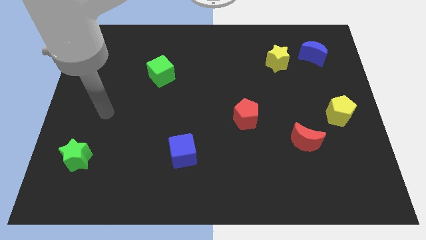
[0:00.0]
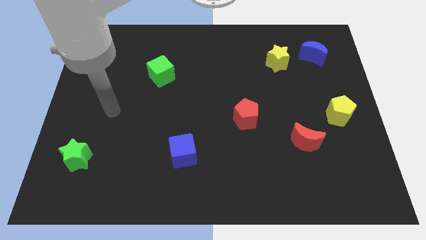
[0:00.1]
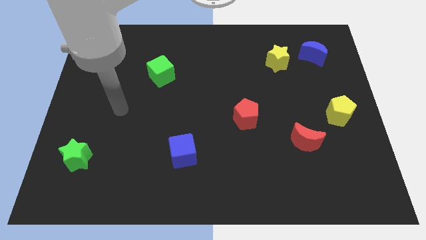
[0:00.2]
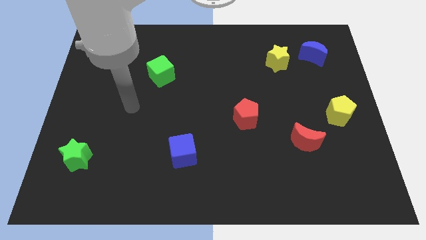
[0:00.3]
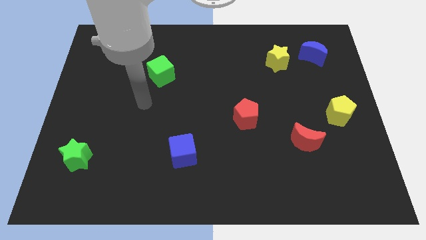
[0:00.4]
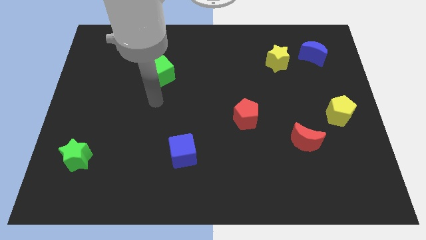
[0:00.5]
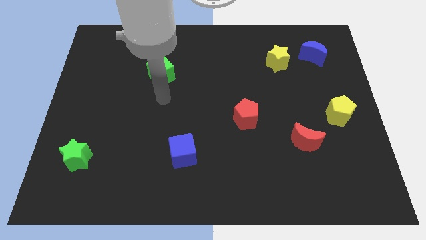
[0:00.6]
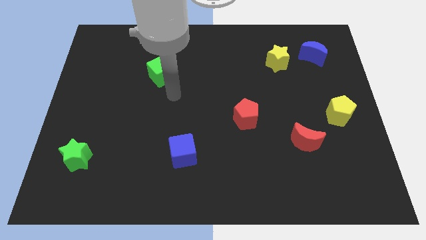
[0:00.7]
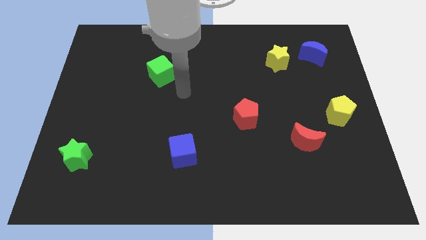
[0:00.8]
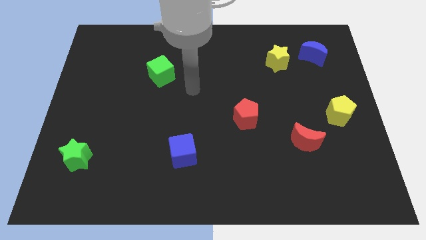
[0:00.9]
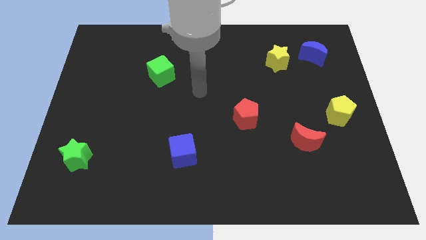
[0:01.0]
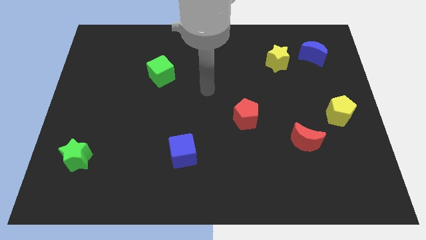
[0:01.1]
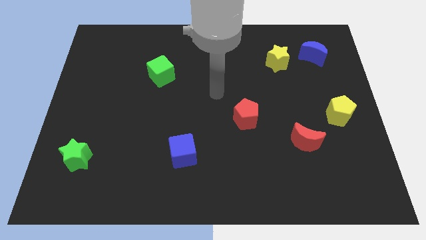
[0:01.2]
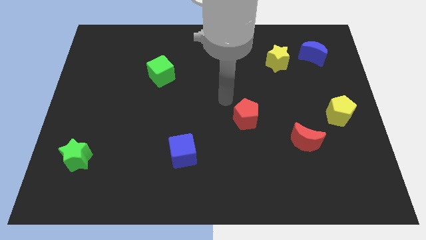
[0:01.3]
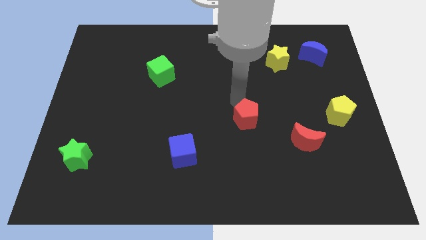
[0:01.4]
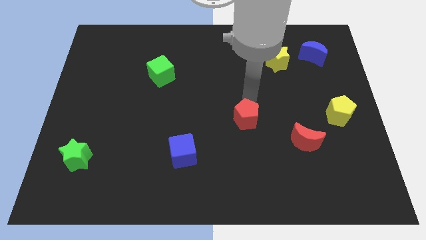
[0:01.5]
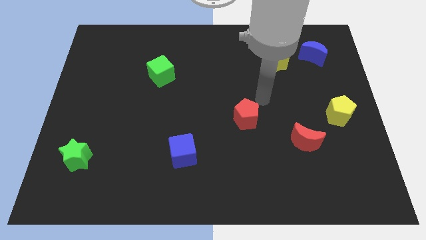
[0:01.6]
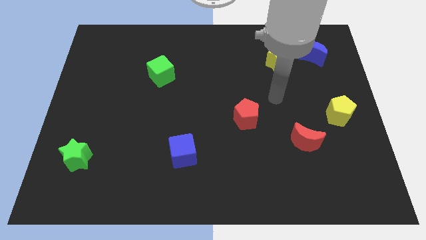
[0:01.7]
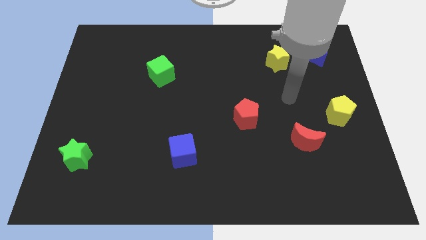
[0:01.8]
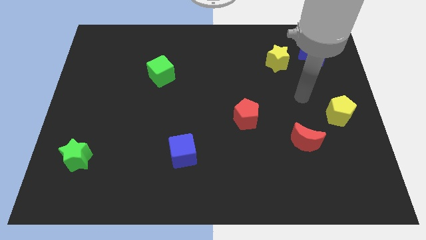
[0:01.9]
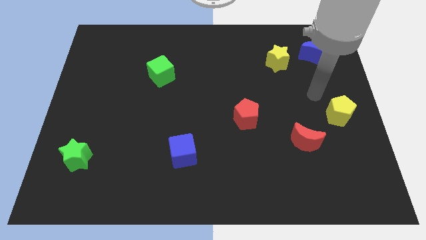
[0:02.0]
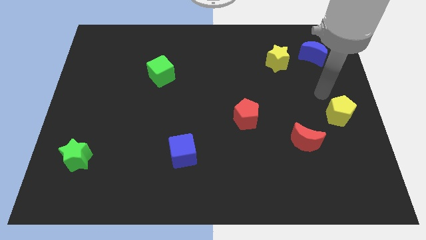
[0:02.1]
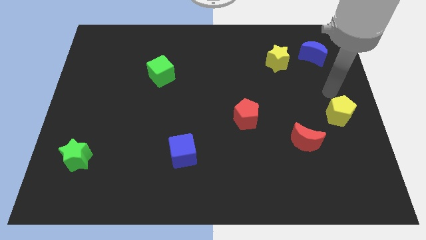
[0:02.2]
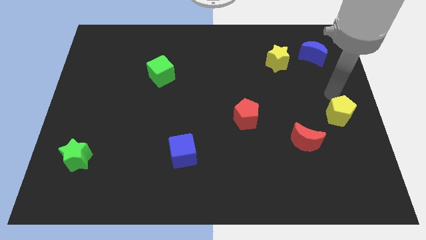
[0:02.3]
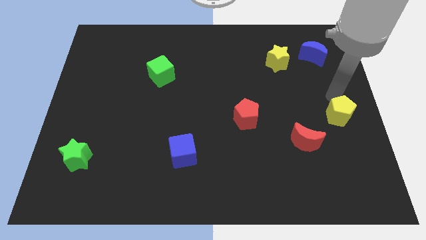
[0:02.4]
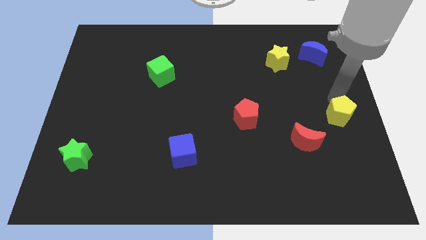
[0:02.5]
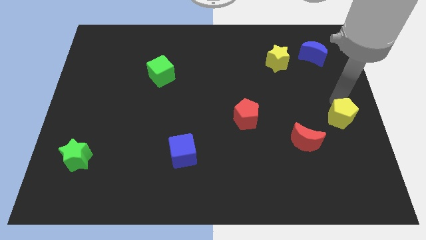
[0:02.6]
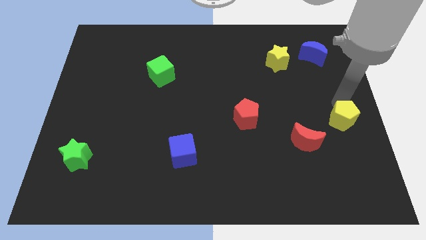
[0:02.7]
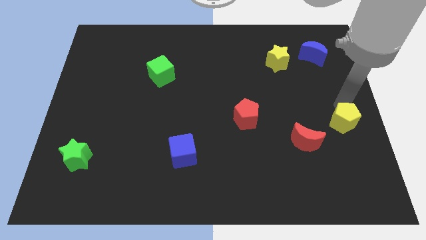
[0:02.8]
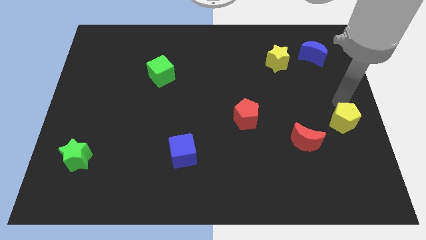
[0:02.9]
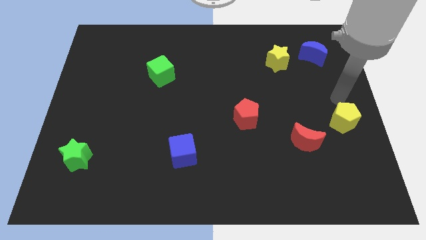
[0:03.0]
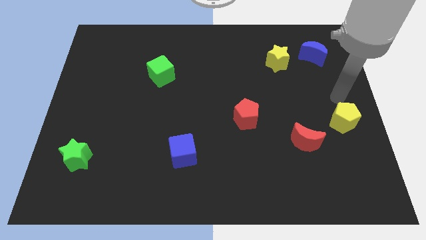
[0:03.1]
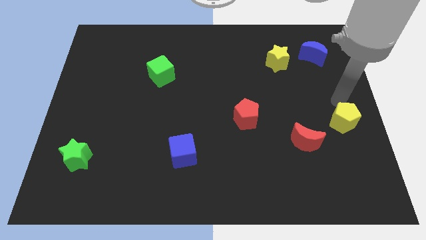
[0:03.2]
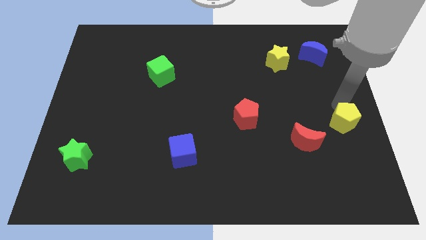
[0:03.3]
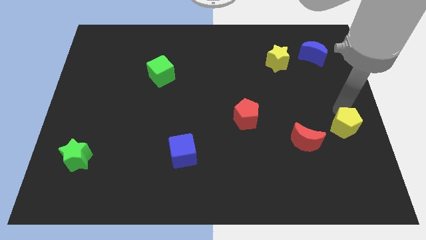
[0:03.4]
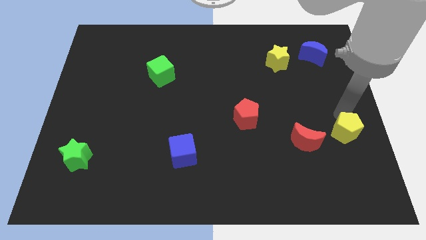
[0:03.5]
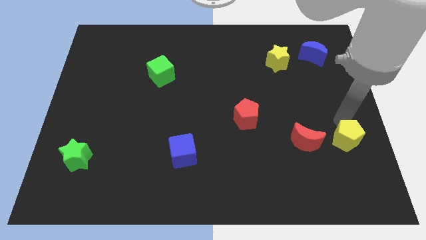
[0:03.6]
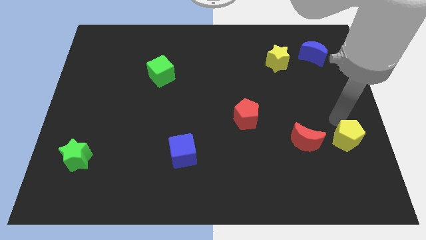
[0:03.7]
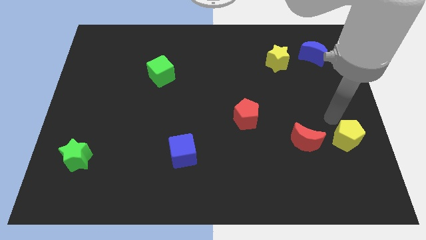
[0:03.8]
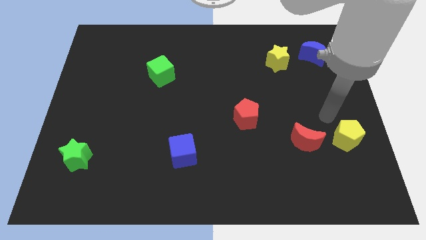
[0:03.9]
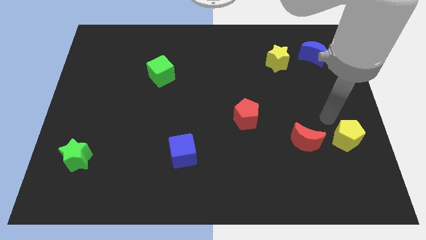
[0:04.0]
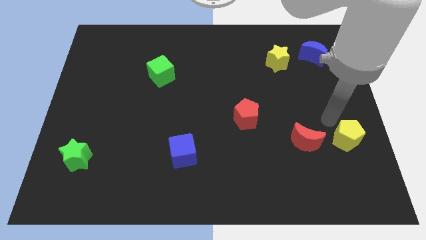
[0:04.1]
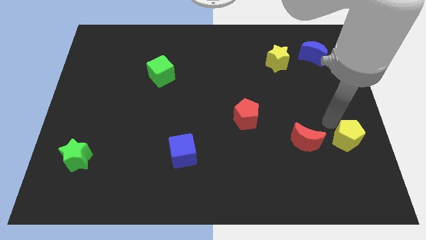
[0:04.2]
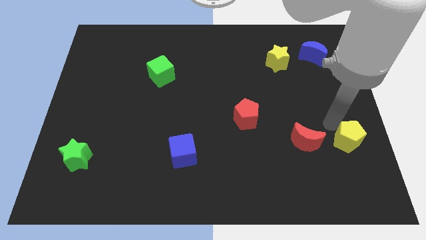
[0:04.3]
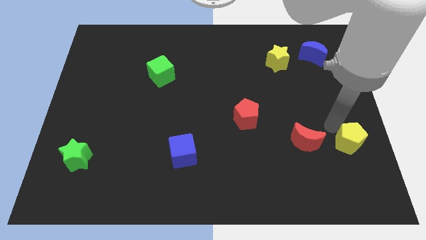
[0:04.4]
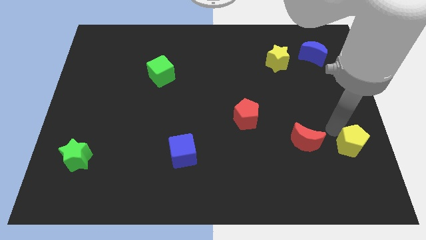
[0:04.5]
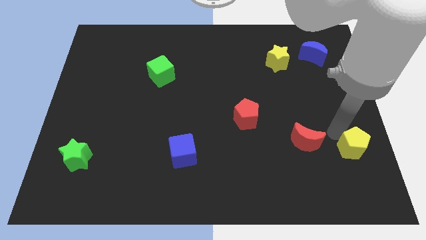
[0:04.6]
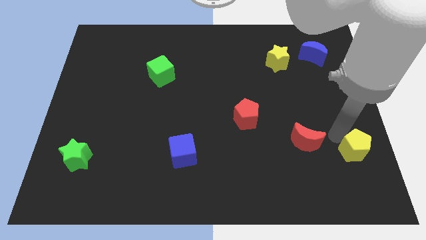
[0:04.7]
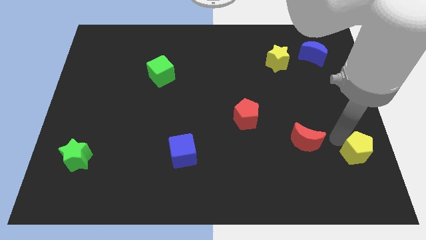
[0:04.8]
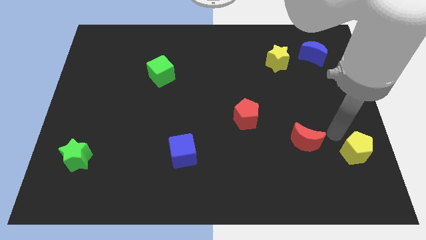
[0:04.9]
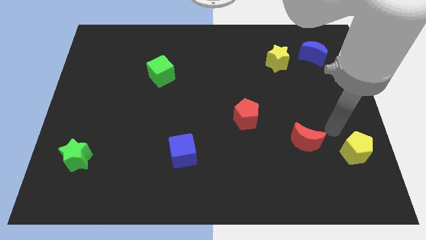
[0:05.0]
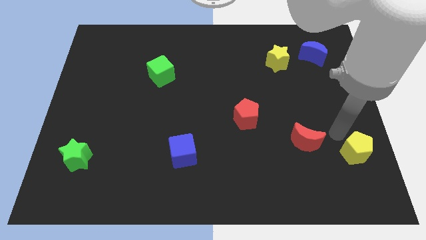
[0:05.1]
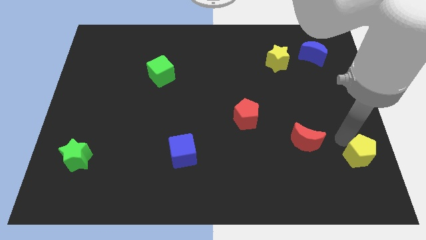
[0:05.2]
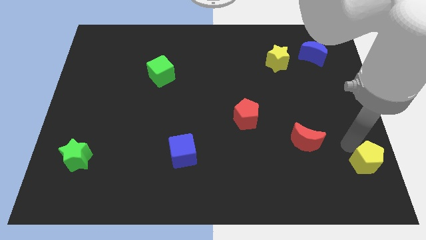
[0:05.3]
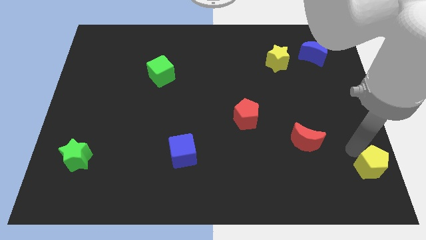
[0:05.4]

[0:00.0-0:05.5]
push the yellow pentagon to the bottom right of the board

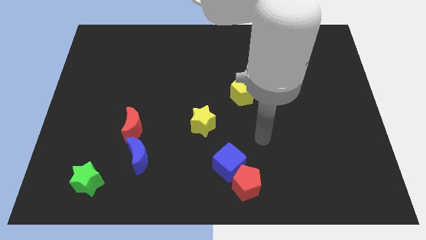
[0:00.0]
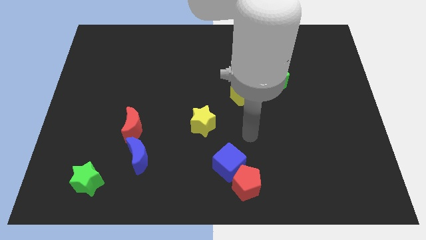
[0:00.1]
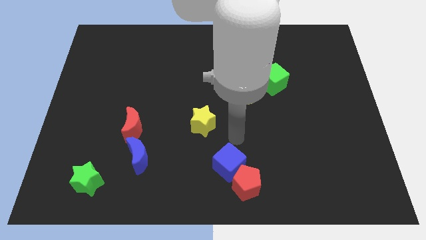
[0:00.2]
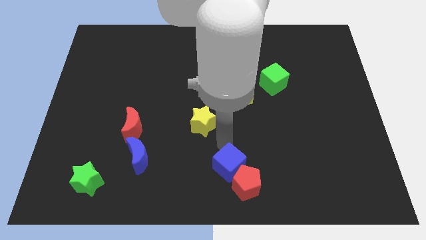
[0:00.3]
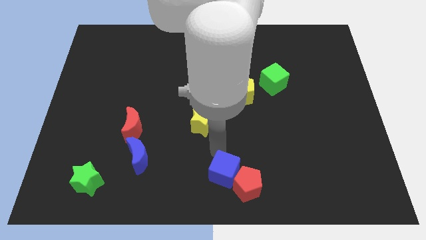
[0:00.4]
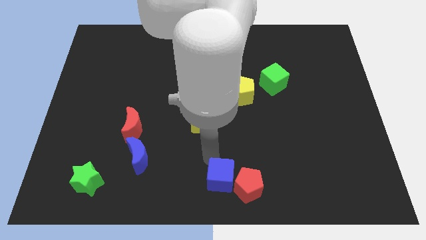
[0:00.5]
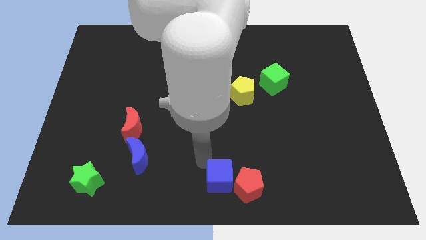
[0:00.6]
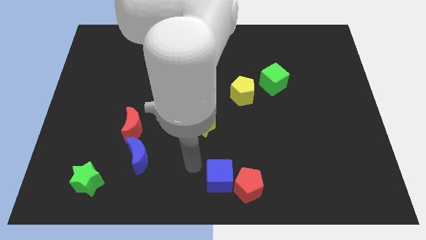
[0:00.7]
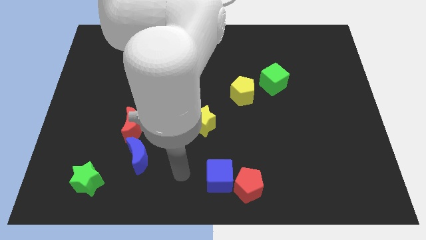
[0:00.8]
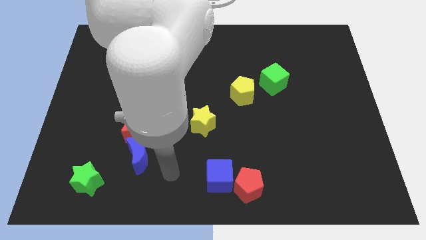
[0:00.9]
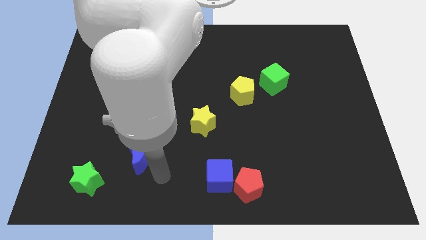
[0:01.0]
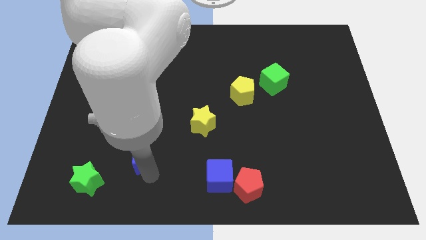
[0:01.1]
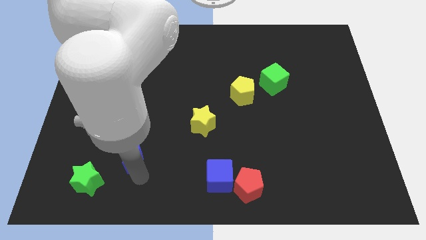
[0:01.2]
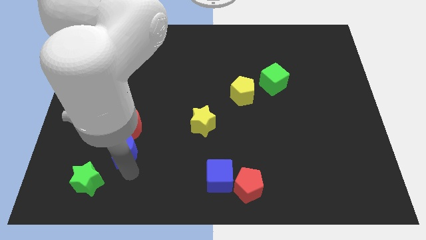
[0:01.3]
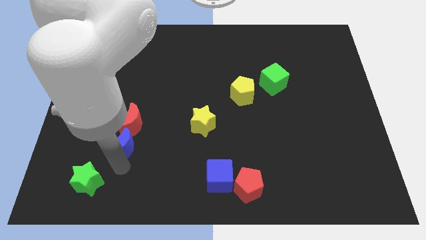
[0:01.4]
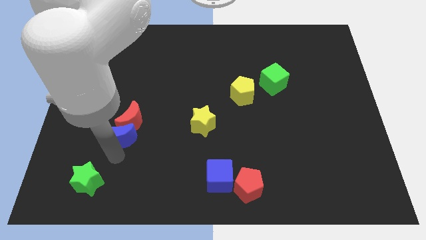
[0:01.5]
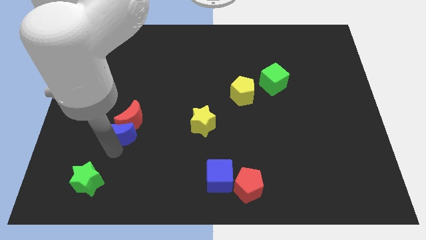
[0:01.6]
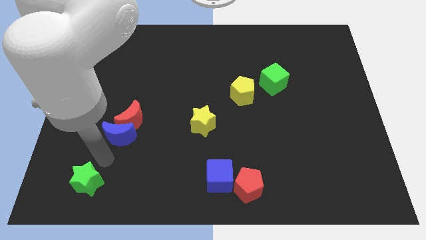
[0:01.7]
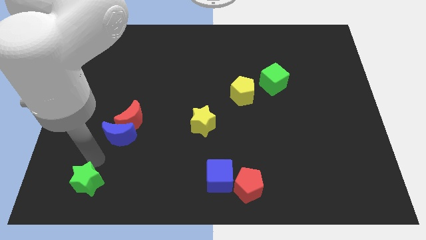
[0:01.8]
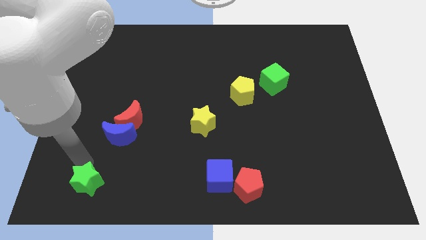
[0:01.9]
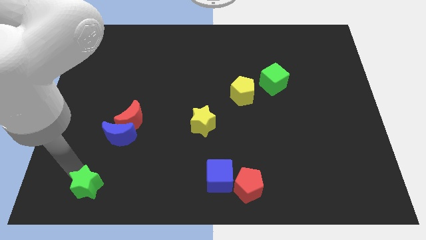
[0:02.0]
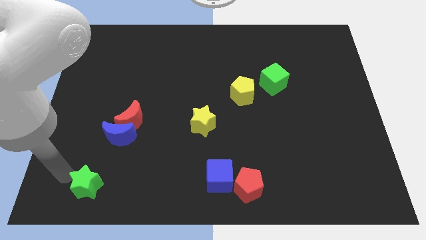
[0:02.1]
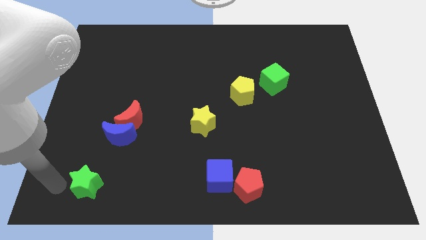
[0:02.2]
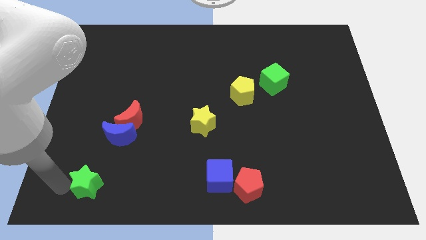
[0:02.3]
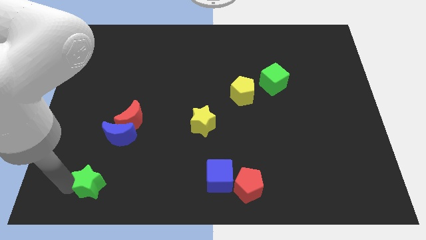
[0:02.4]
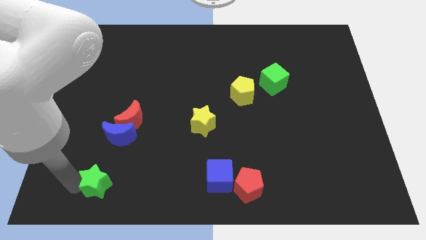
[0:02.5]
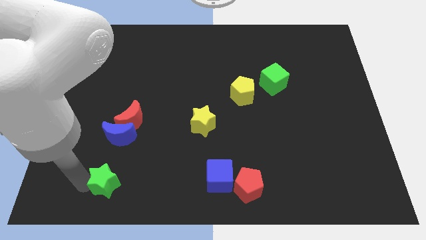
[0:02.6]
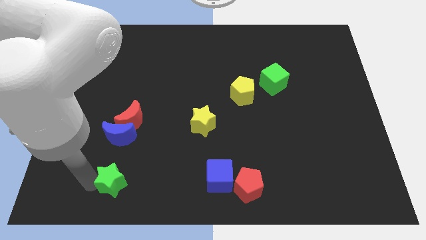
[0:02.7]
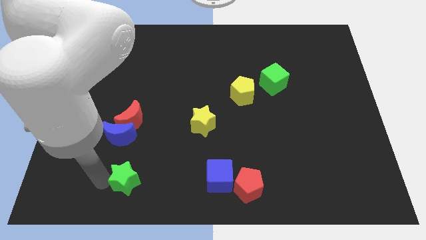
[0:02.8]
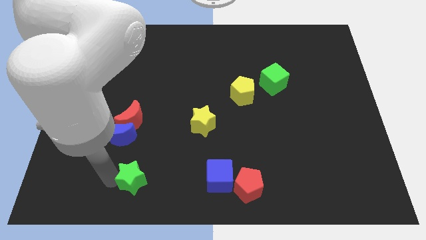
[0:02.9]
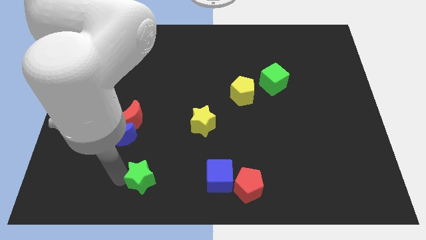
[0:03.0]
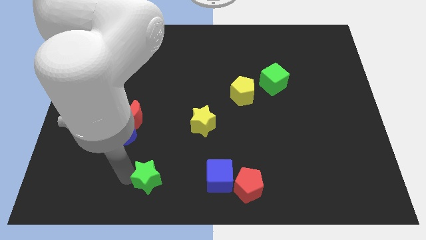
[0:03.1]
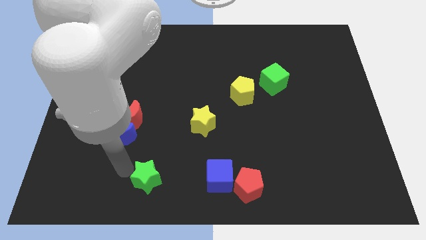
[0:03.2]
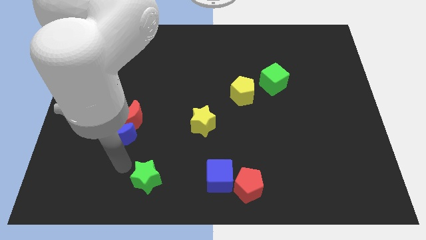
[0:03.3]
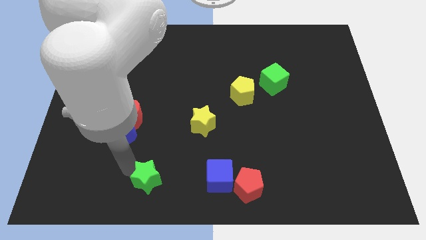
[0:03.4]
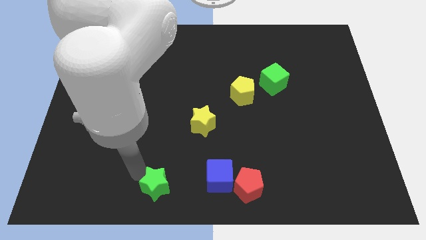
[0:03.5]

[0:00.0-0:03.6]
put the green star to the bottom side
